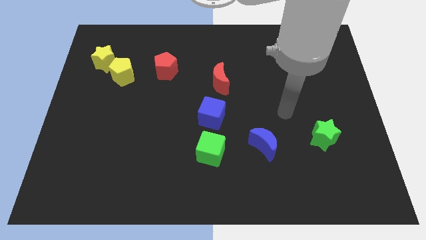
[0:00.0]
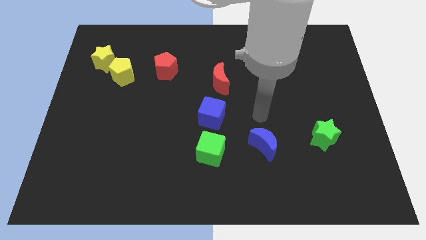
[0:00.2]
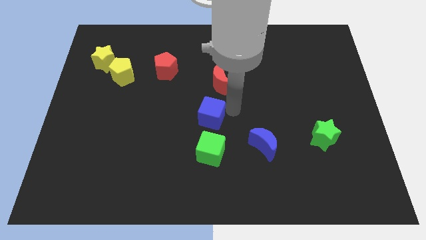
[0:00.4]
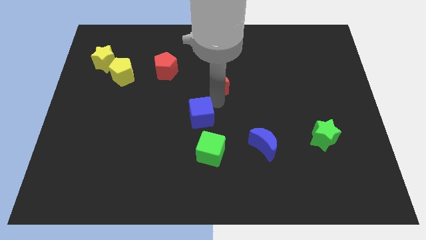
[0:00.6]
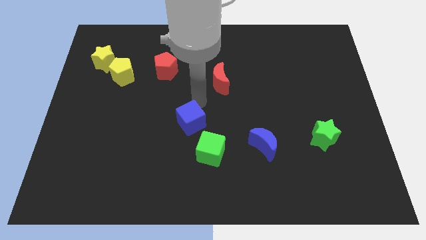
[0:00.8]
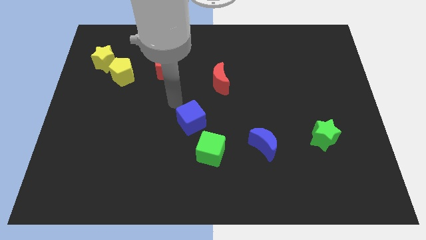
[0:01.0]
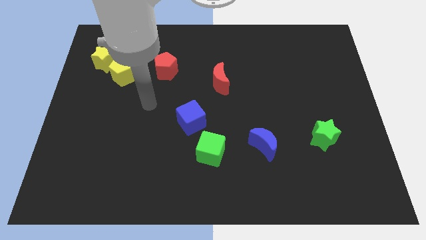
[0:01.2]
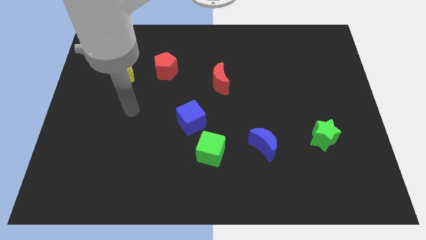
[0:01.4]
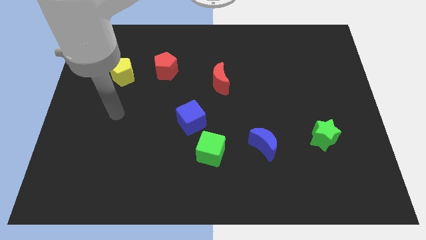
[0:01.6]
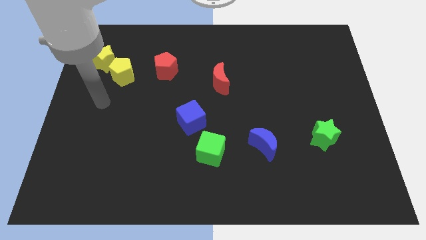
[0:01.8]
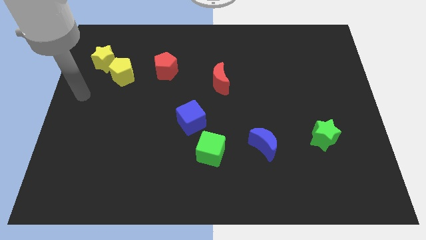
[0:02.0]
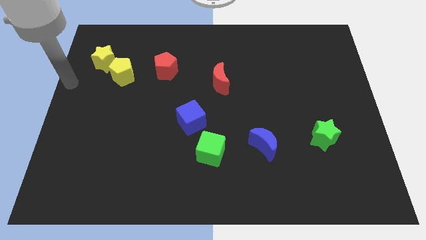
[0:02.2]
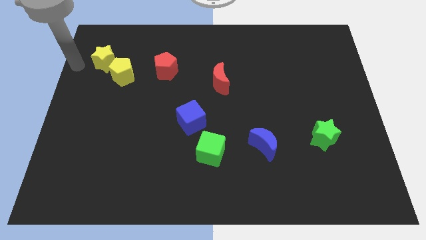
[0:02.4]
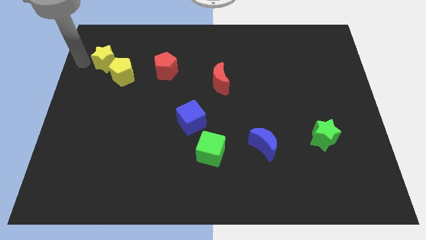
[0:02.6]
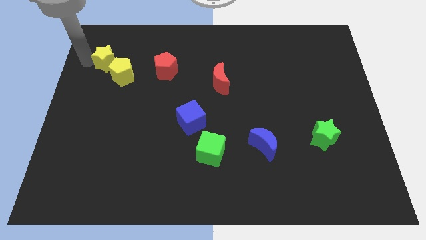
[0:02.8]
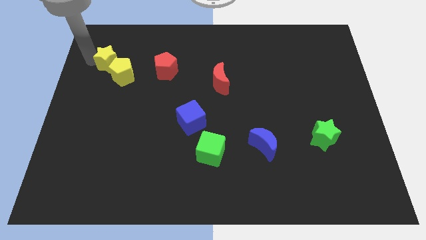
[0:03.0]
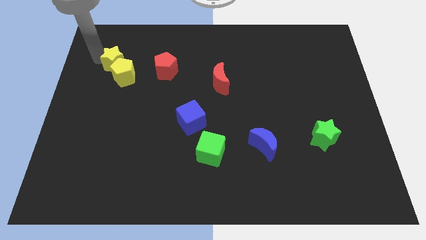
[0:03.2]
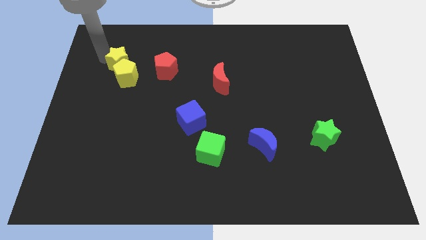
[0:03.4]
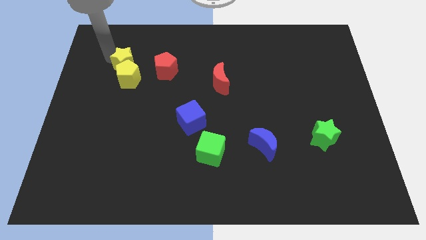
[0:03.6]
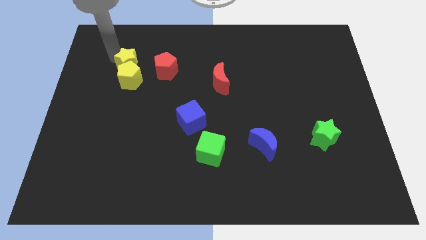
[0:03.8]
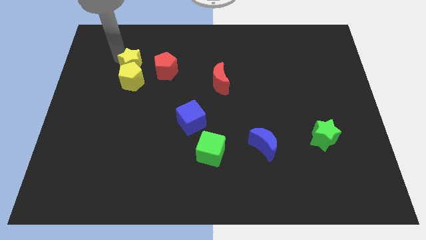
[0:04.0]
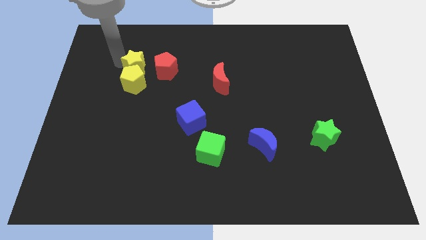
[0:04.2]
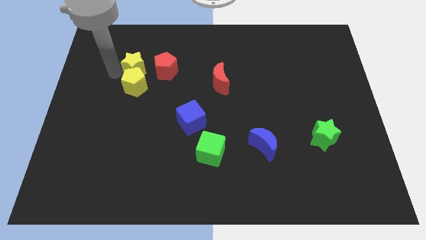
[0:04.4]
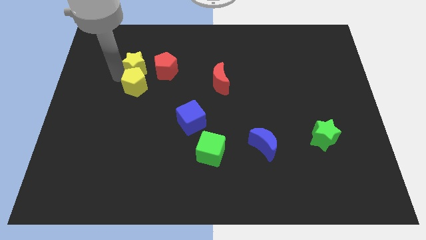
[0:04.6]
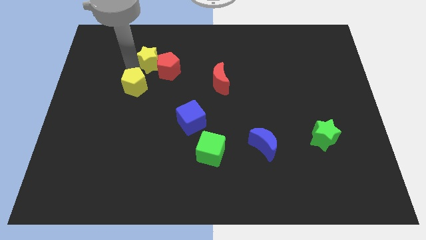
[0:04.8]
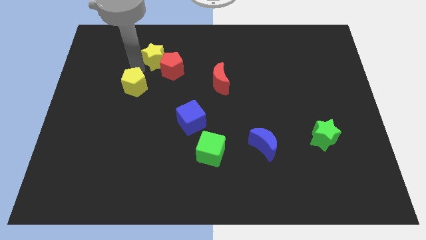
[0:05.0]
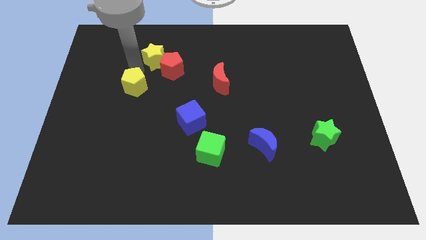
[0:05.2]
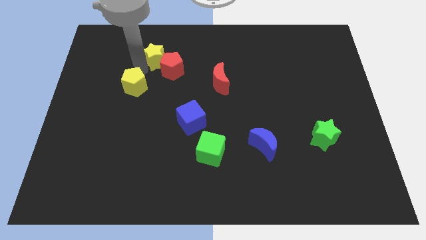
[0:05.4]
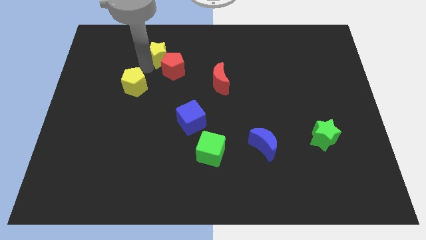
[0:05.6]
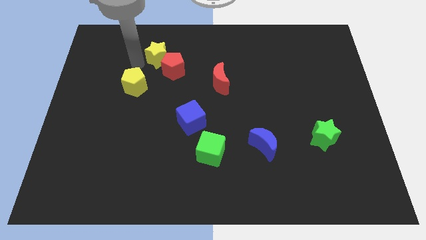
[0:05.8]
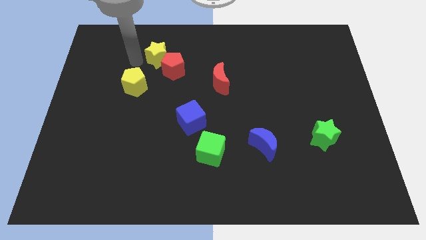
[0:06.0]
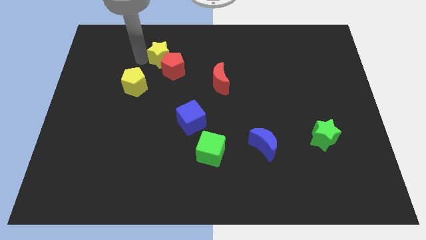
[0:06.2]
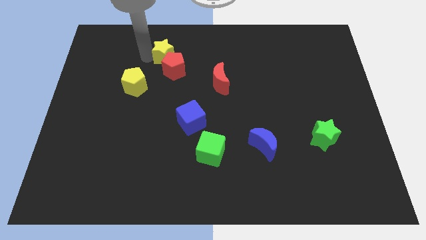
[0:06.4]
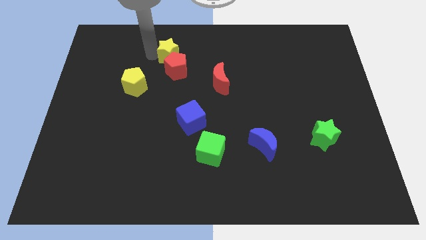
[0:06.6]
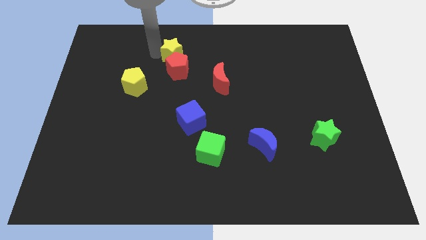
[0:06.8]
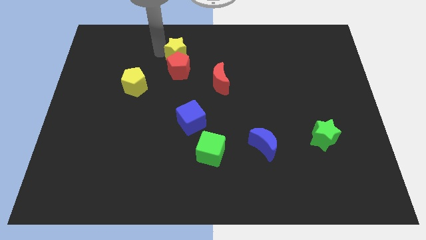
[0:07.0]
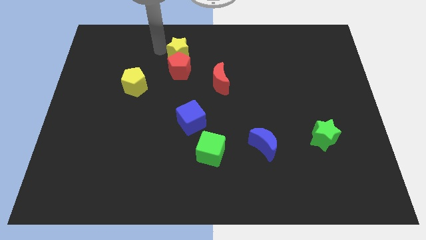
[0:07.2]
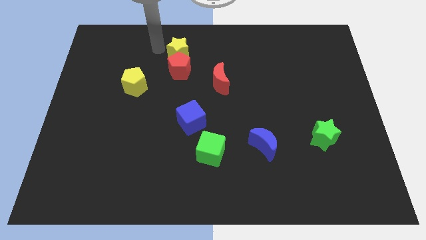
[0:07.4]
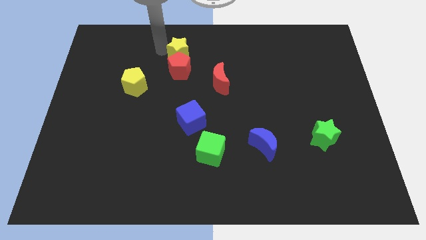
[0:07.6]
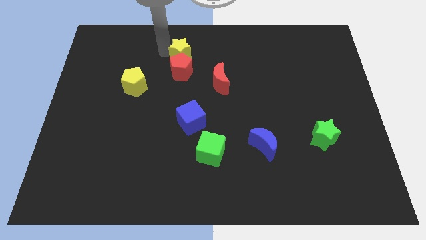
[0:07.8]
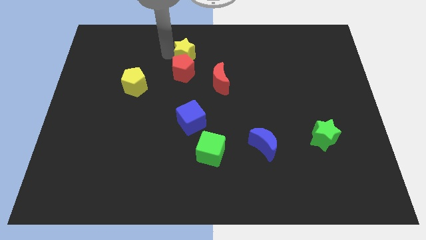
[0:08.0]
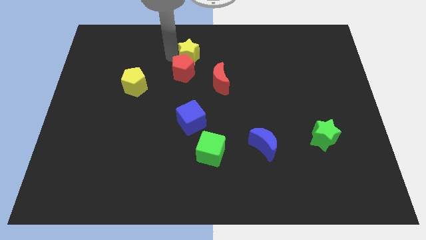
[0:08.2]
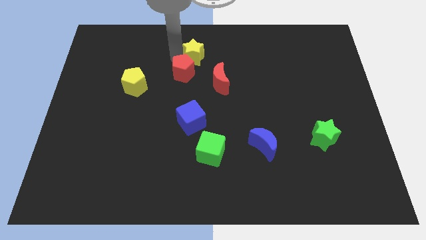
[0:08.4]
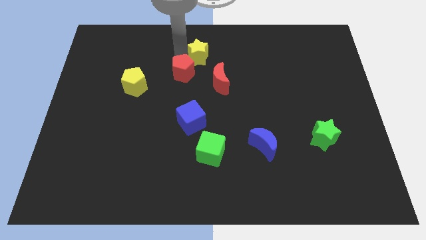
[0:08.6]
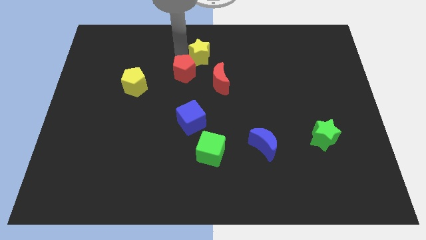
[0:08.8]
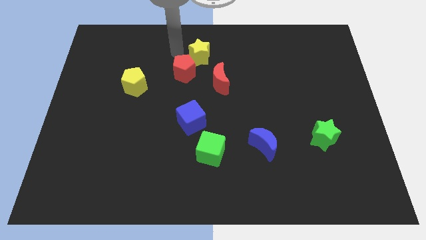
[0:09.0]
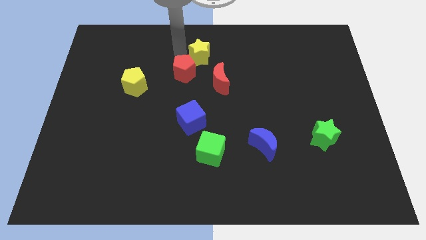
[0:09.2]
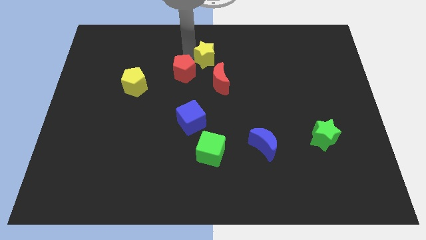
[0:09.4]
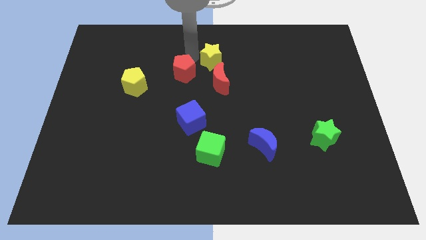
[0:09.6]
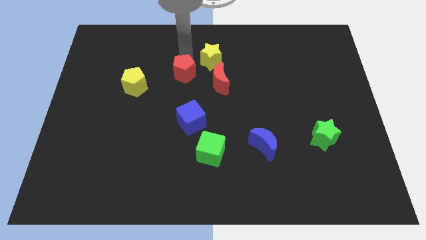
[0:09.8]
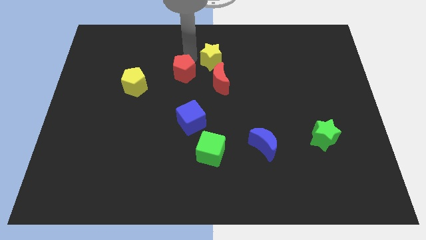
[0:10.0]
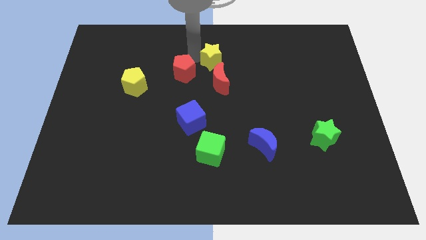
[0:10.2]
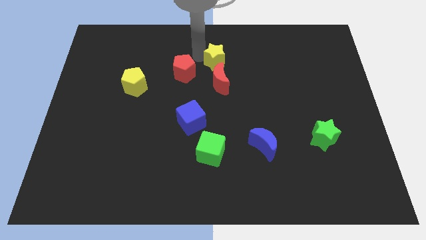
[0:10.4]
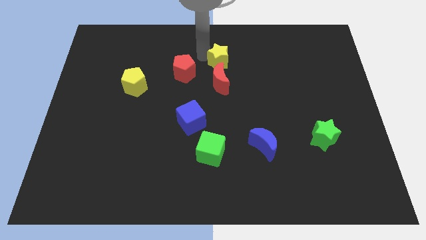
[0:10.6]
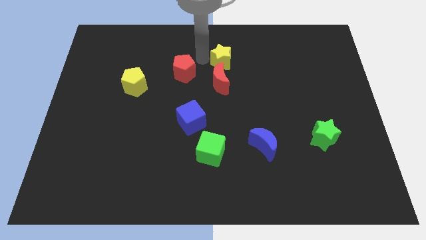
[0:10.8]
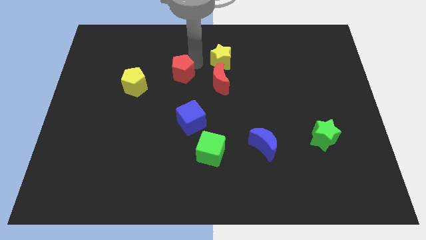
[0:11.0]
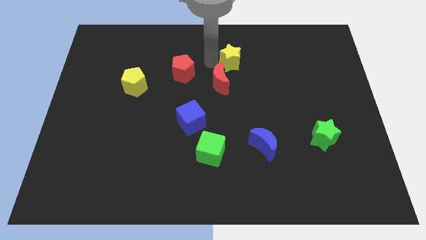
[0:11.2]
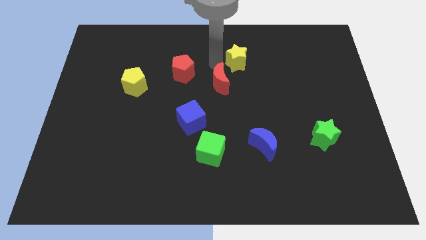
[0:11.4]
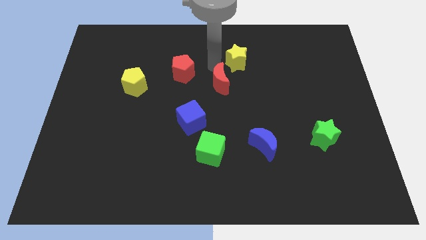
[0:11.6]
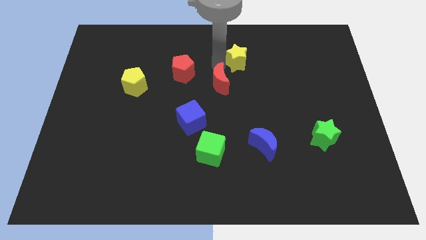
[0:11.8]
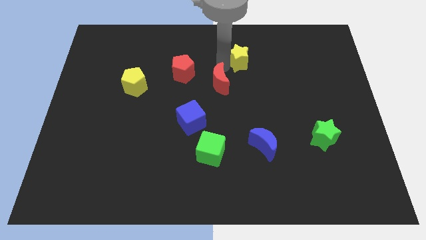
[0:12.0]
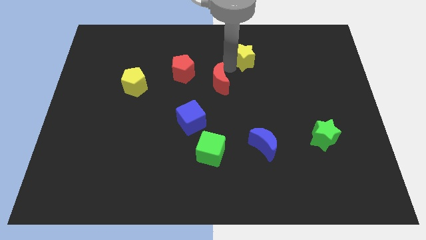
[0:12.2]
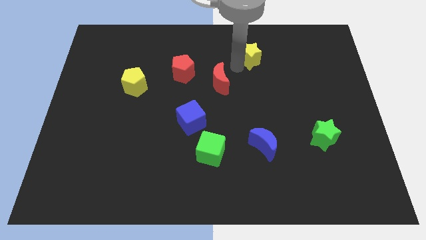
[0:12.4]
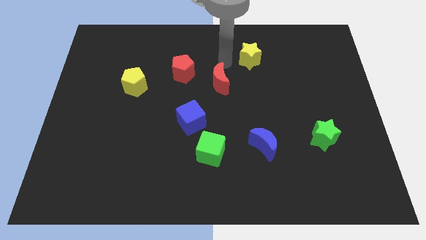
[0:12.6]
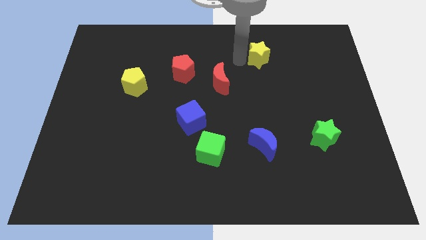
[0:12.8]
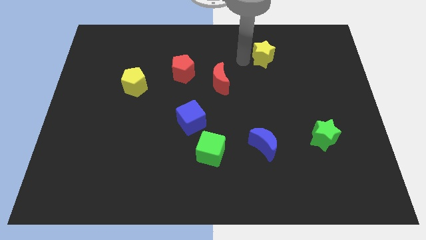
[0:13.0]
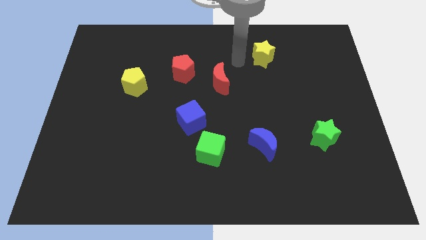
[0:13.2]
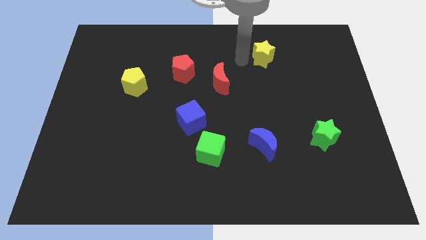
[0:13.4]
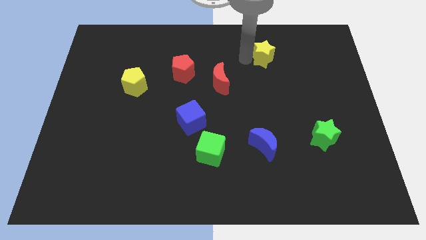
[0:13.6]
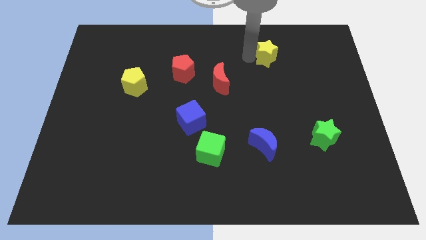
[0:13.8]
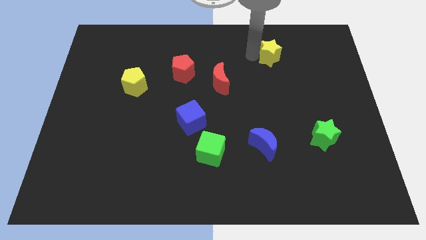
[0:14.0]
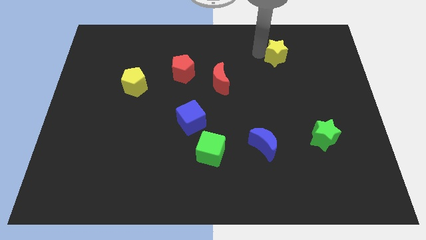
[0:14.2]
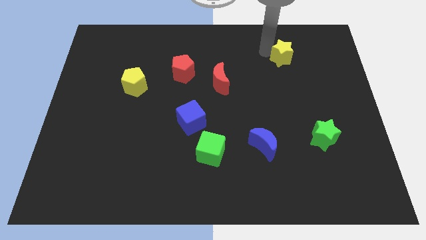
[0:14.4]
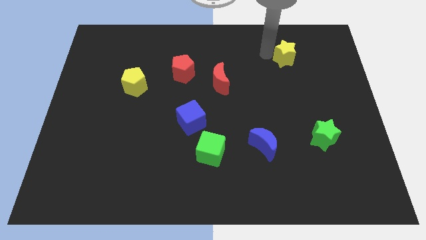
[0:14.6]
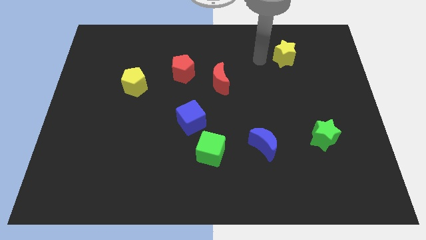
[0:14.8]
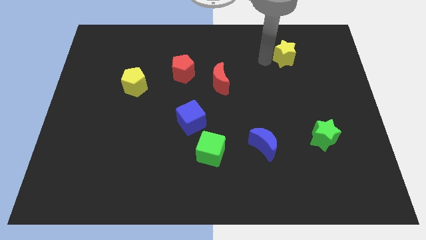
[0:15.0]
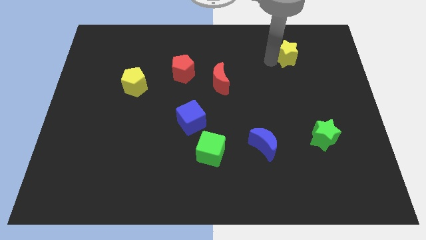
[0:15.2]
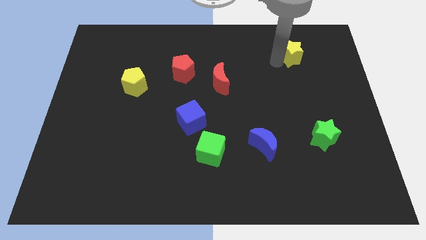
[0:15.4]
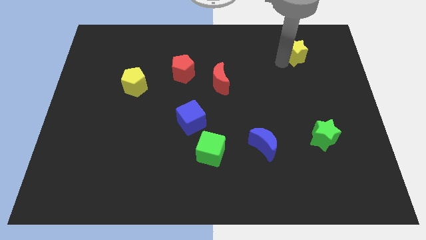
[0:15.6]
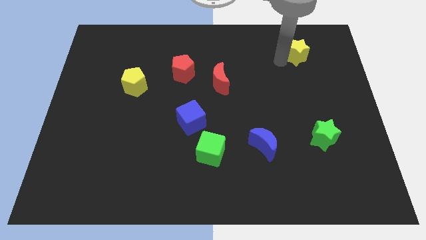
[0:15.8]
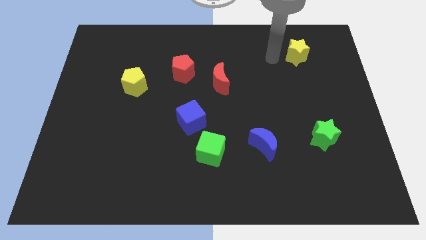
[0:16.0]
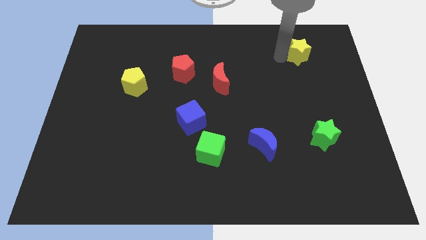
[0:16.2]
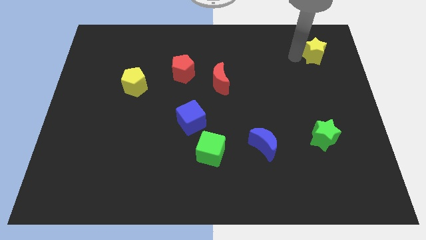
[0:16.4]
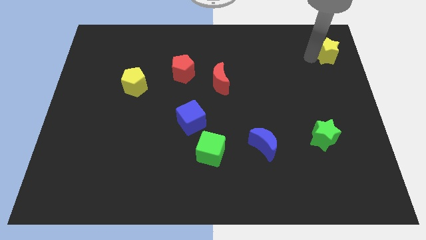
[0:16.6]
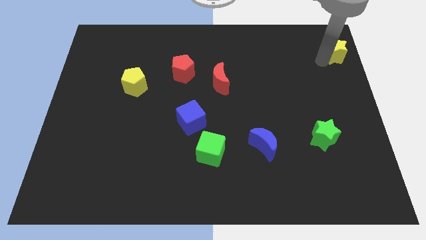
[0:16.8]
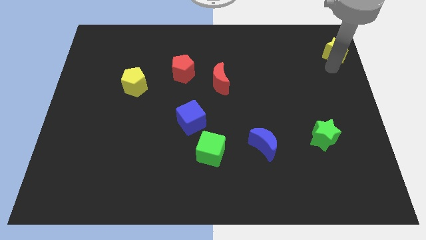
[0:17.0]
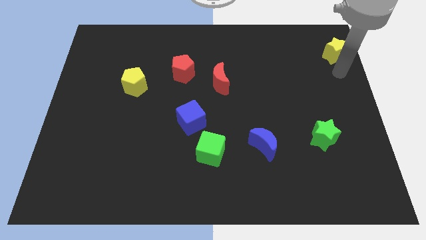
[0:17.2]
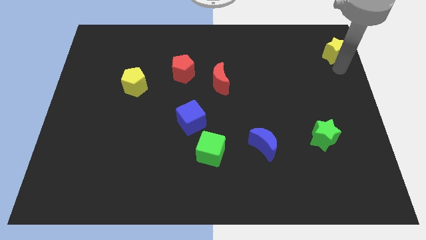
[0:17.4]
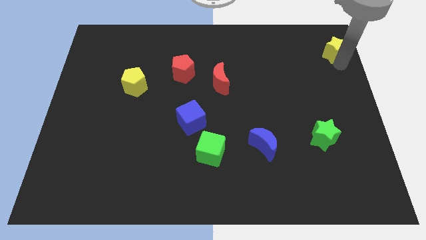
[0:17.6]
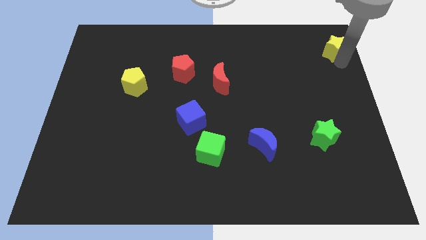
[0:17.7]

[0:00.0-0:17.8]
put the yellow star to the top right of the board
